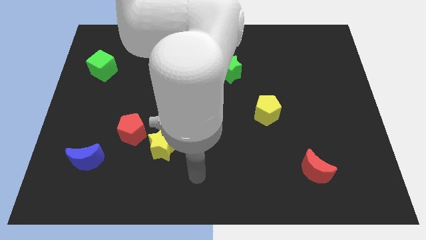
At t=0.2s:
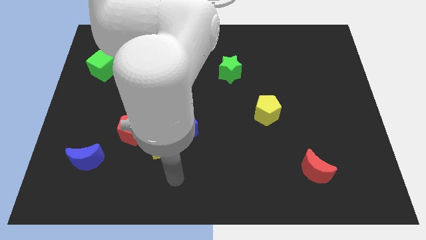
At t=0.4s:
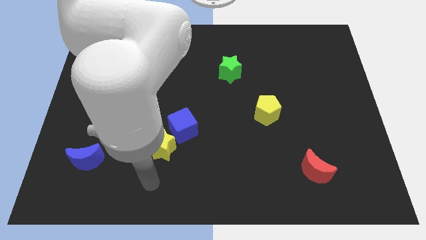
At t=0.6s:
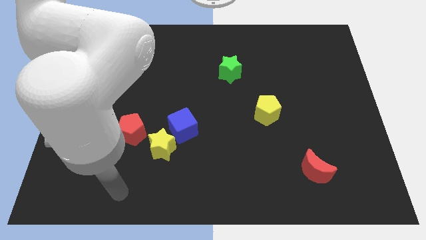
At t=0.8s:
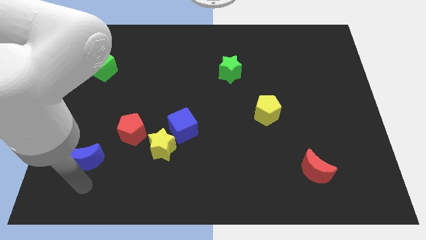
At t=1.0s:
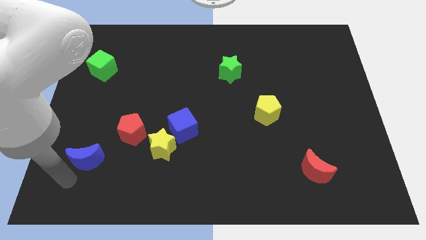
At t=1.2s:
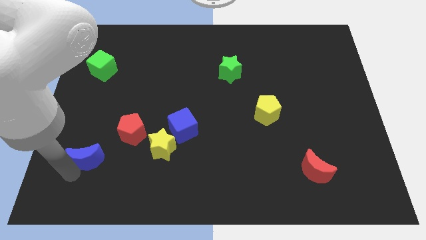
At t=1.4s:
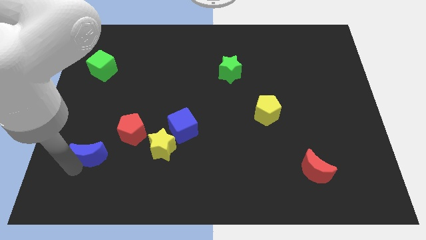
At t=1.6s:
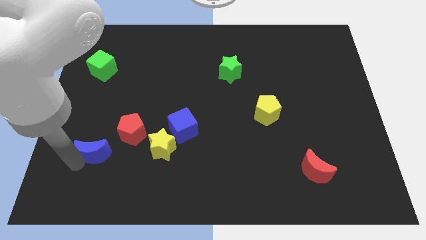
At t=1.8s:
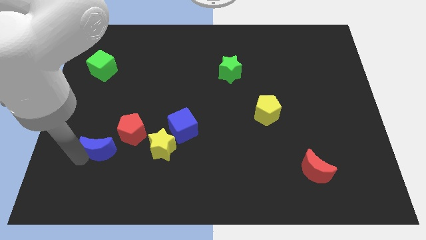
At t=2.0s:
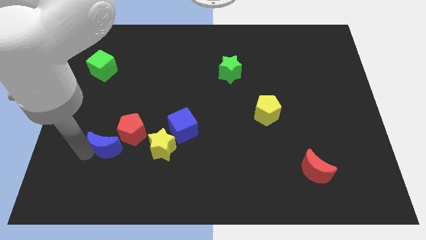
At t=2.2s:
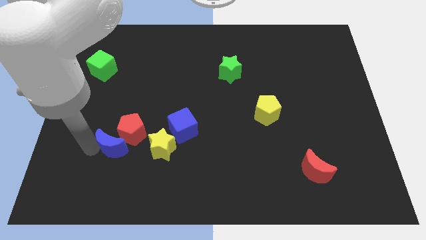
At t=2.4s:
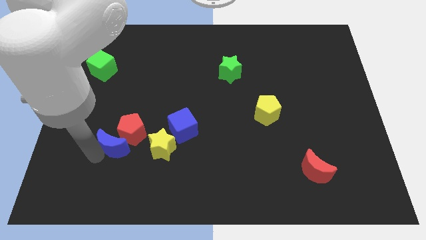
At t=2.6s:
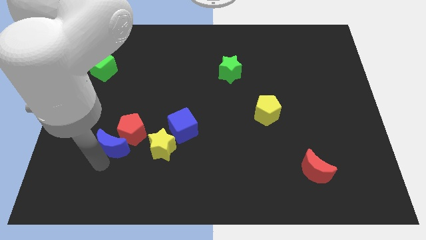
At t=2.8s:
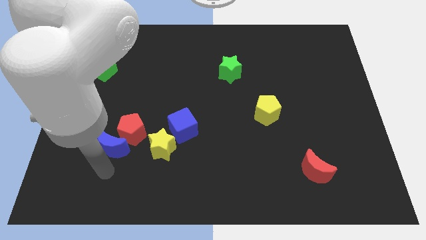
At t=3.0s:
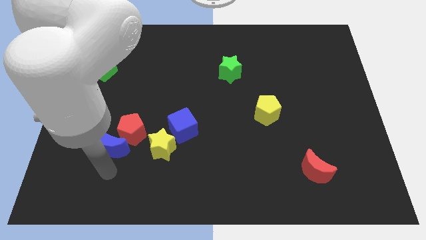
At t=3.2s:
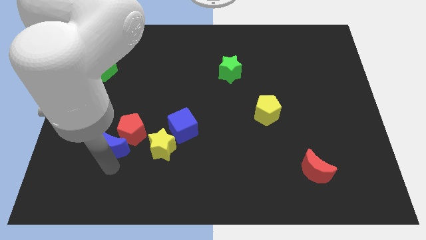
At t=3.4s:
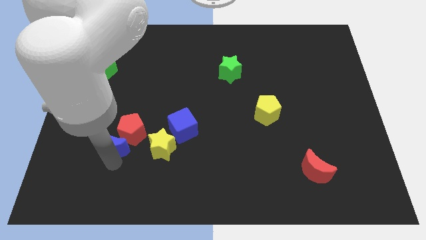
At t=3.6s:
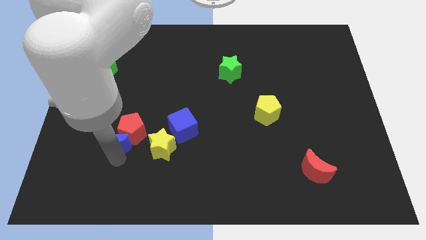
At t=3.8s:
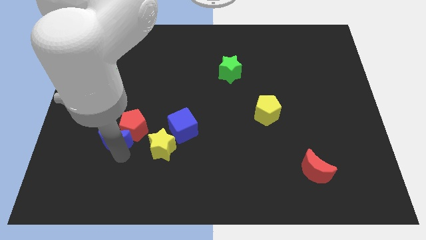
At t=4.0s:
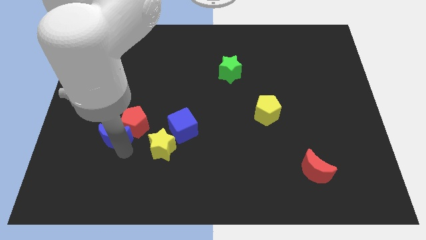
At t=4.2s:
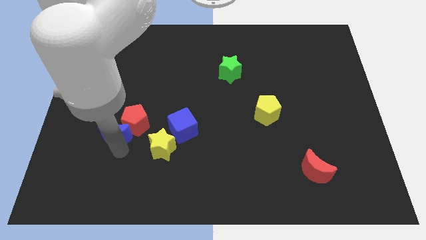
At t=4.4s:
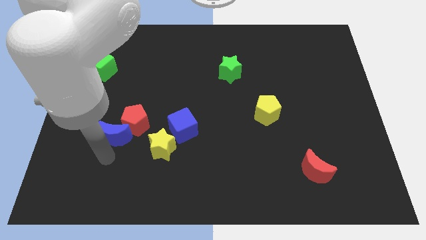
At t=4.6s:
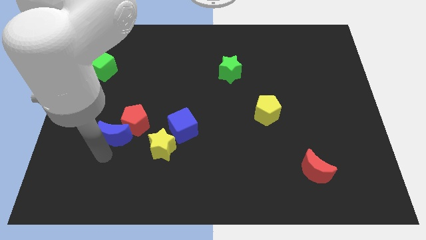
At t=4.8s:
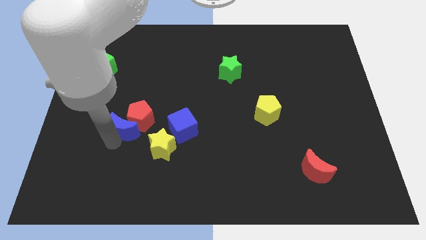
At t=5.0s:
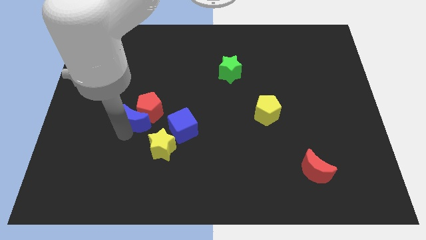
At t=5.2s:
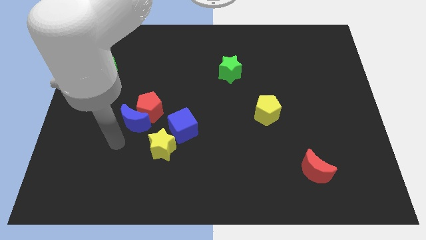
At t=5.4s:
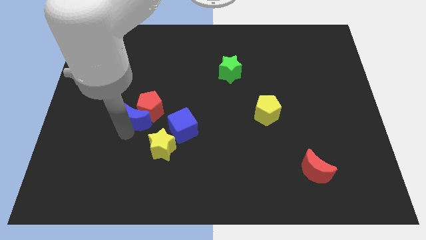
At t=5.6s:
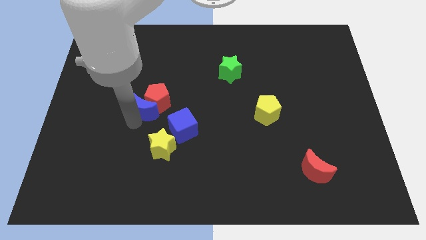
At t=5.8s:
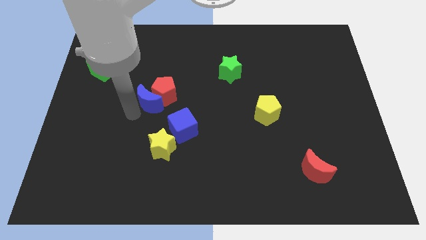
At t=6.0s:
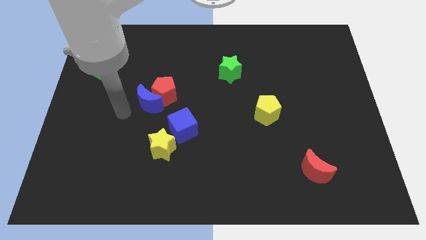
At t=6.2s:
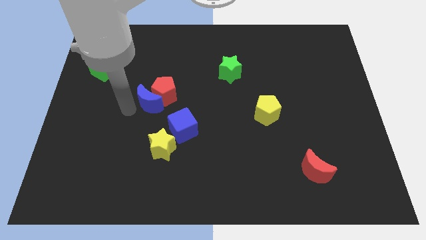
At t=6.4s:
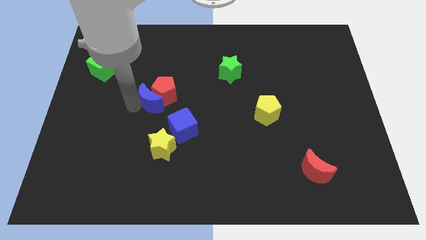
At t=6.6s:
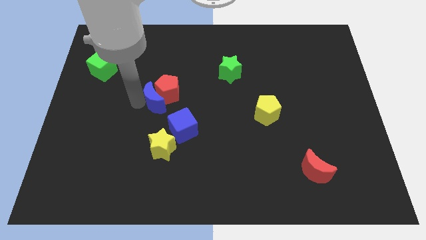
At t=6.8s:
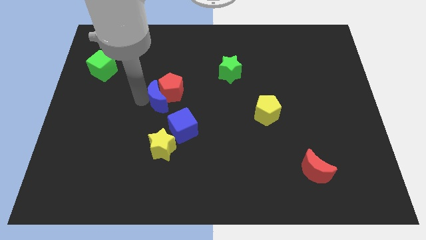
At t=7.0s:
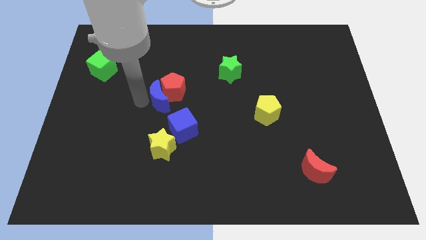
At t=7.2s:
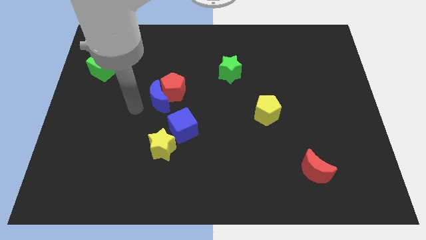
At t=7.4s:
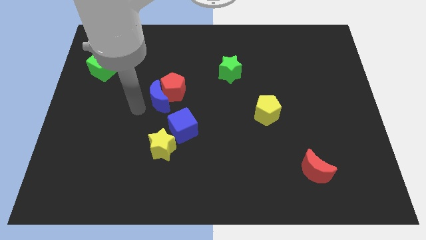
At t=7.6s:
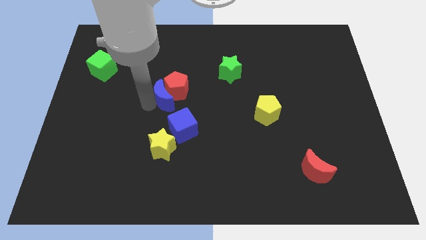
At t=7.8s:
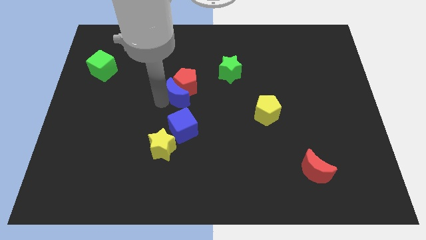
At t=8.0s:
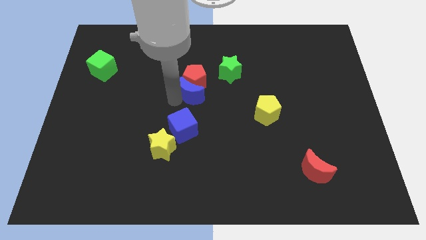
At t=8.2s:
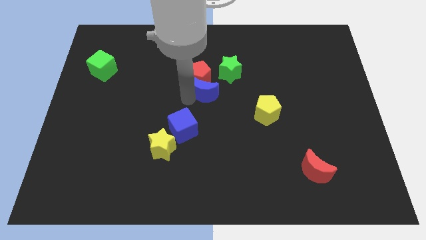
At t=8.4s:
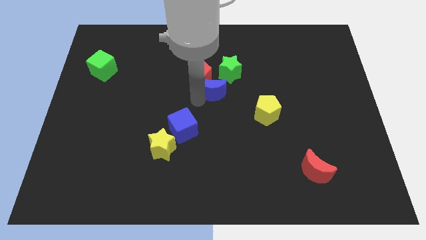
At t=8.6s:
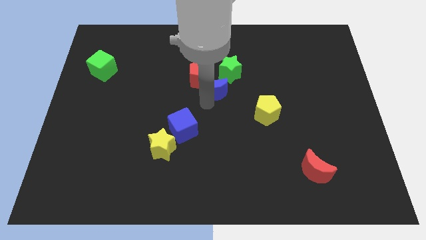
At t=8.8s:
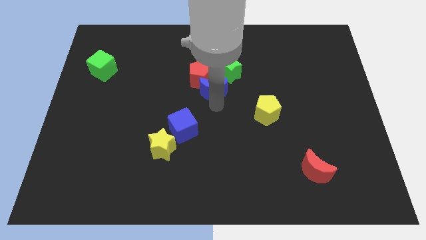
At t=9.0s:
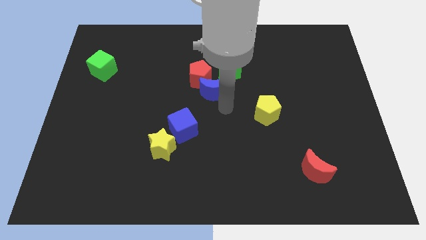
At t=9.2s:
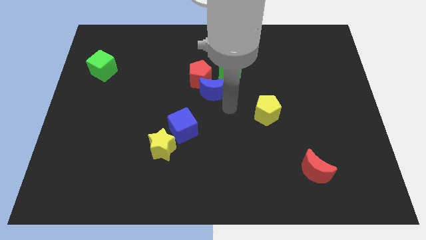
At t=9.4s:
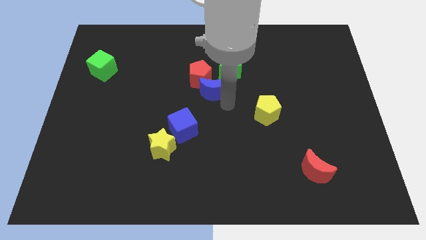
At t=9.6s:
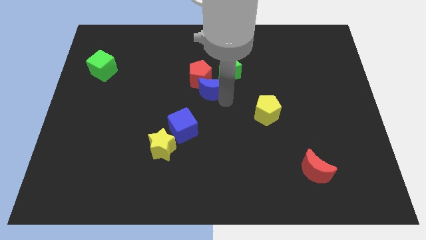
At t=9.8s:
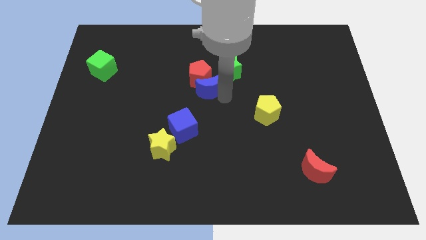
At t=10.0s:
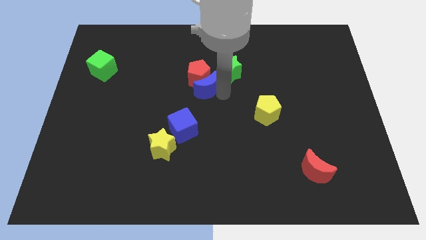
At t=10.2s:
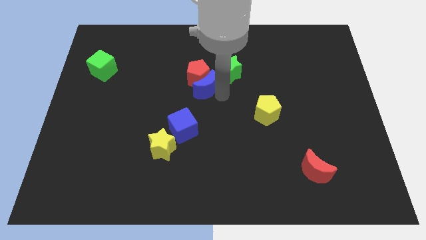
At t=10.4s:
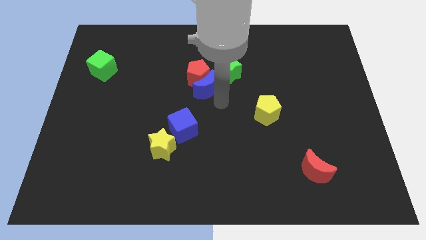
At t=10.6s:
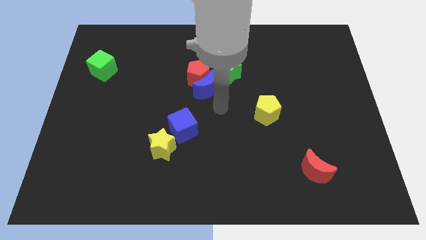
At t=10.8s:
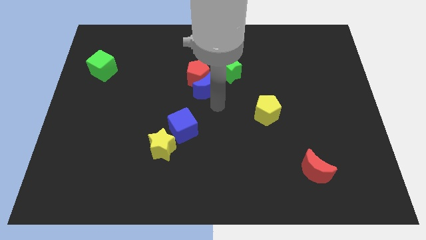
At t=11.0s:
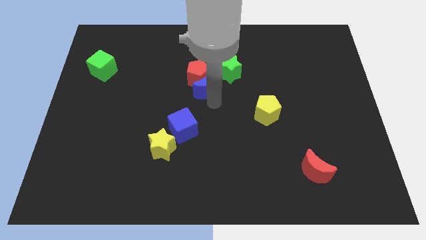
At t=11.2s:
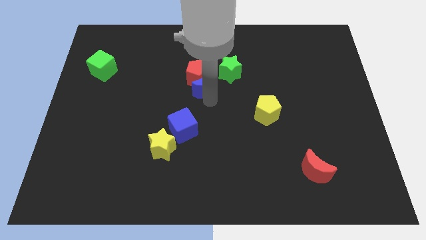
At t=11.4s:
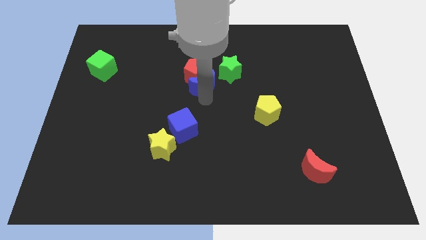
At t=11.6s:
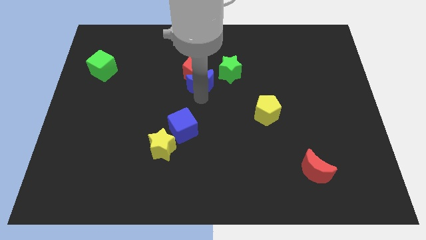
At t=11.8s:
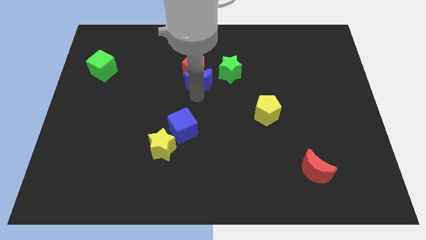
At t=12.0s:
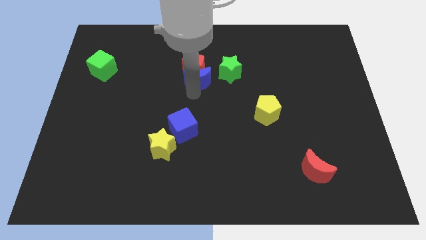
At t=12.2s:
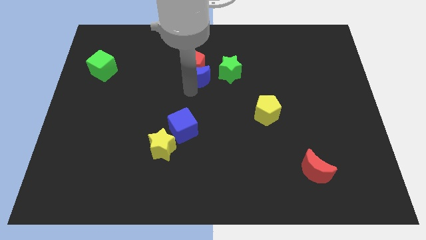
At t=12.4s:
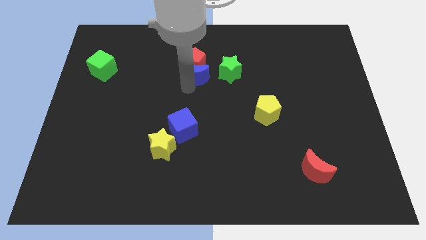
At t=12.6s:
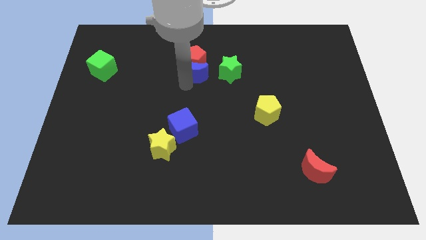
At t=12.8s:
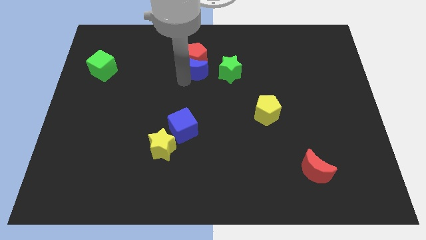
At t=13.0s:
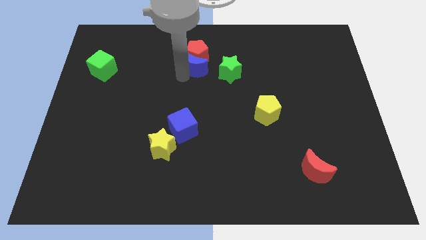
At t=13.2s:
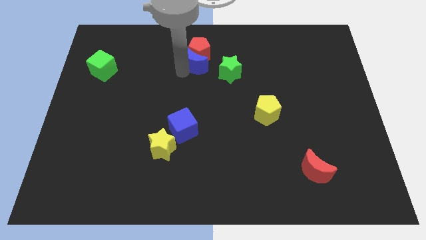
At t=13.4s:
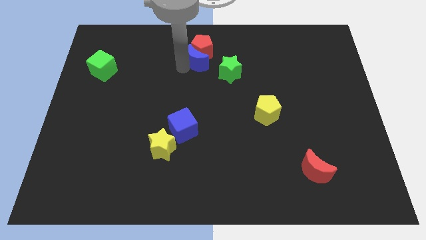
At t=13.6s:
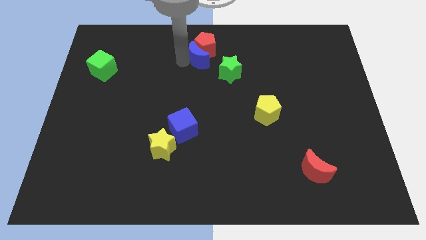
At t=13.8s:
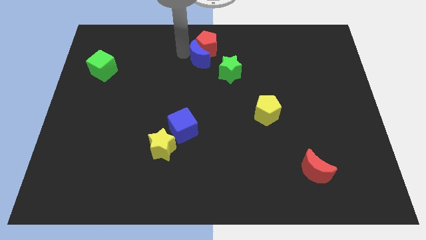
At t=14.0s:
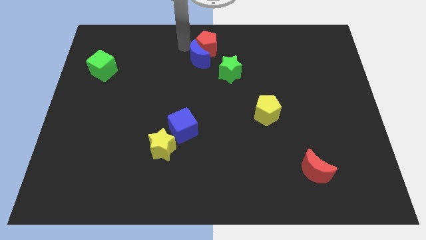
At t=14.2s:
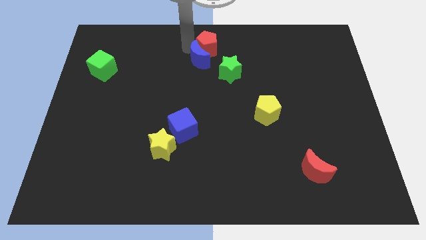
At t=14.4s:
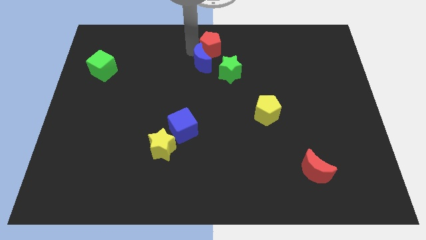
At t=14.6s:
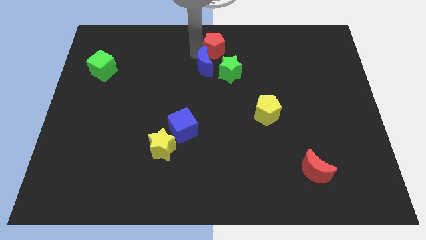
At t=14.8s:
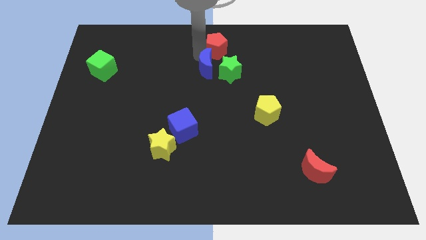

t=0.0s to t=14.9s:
put the blue moon to the green star
